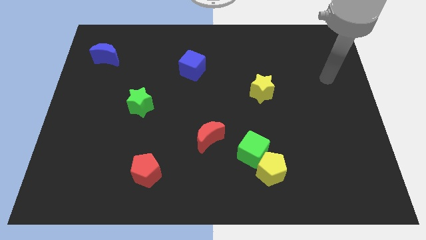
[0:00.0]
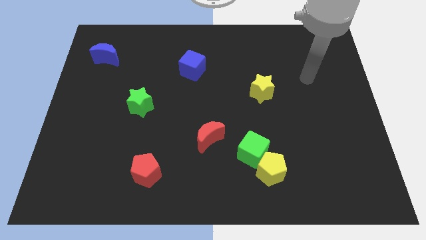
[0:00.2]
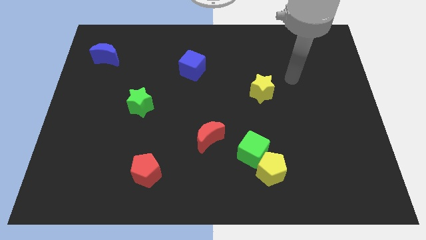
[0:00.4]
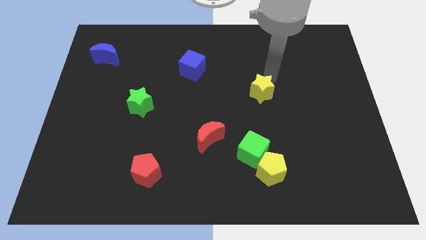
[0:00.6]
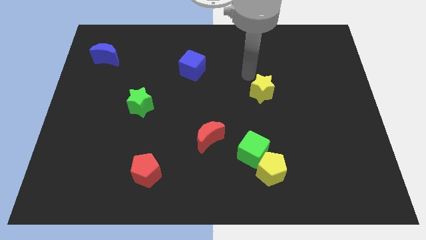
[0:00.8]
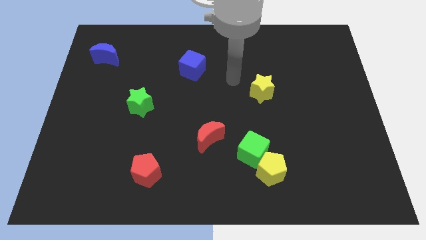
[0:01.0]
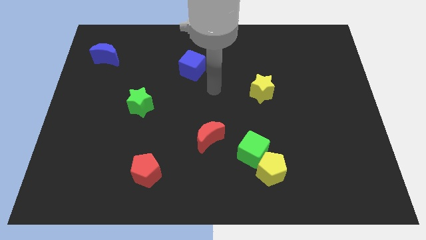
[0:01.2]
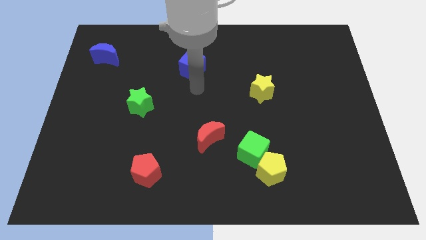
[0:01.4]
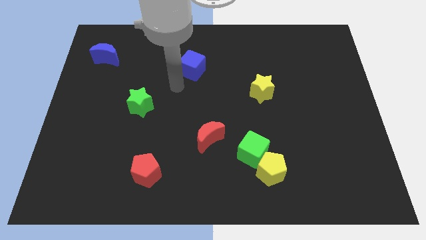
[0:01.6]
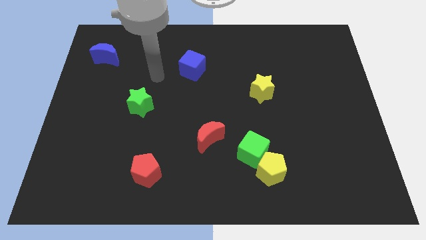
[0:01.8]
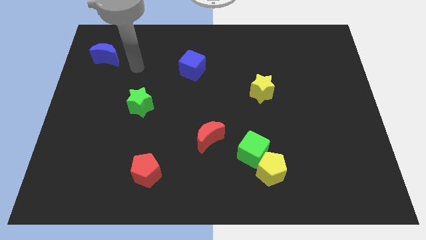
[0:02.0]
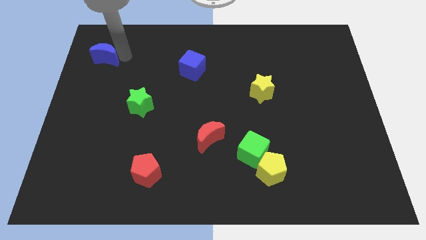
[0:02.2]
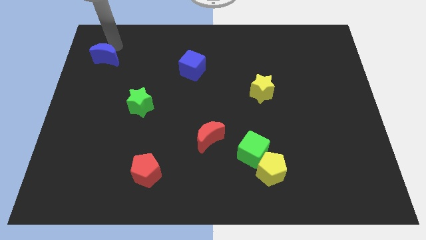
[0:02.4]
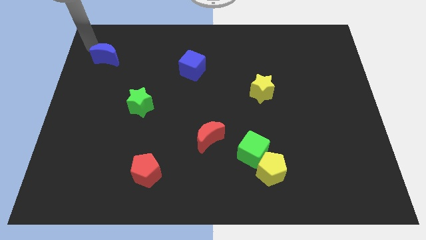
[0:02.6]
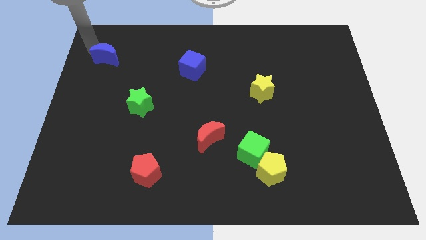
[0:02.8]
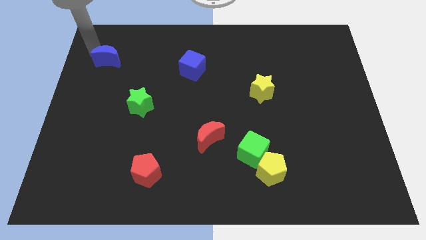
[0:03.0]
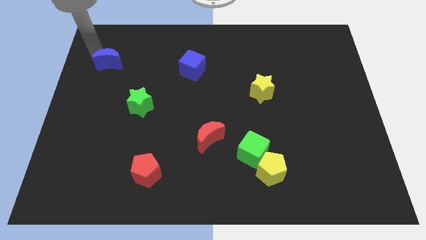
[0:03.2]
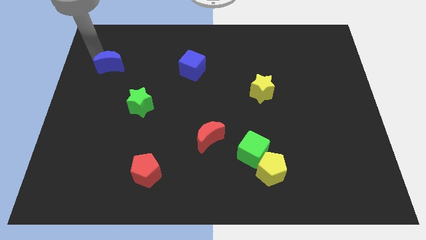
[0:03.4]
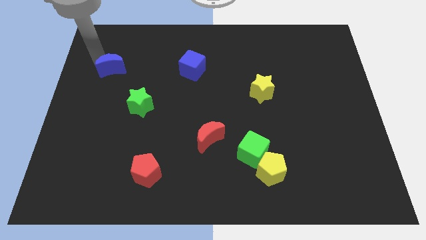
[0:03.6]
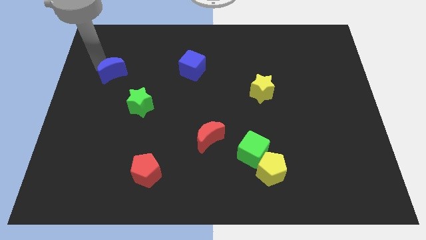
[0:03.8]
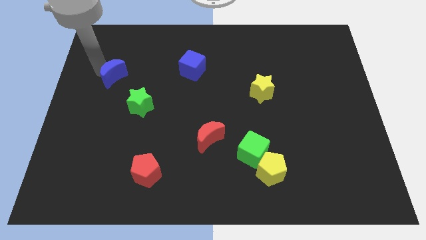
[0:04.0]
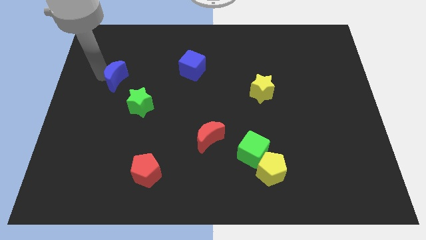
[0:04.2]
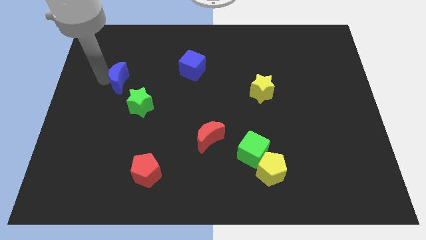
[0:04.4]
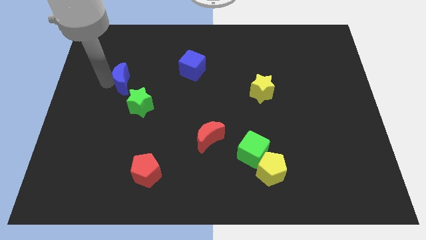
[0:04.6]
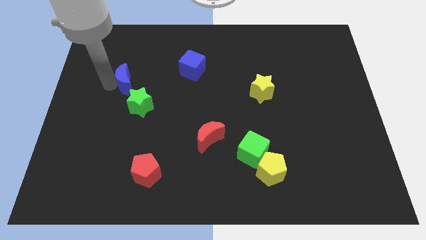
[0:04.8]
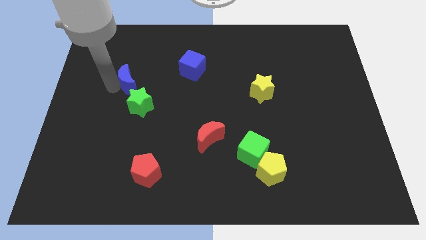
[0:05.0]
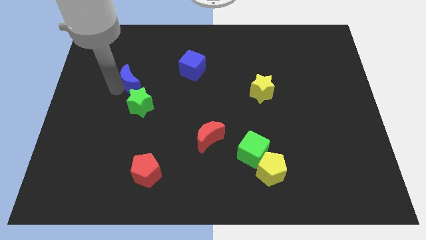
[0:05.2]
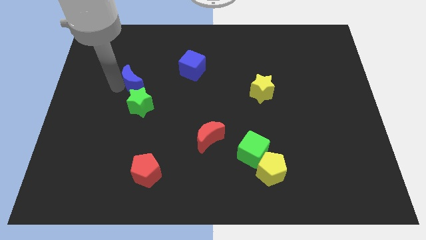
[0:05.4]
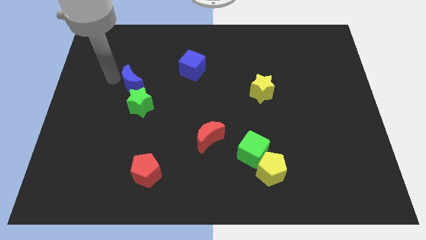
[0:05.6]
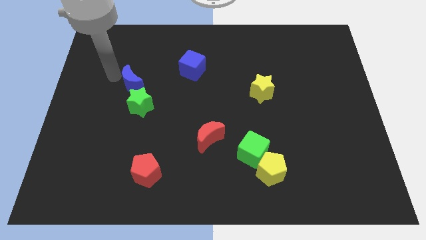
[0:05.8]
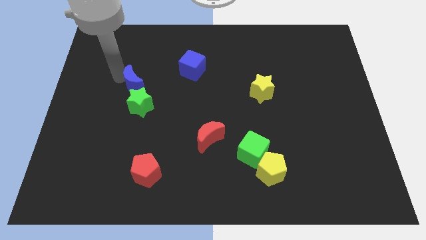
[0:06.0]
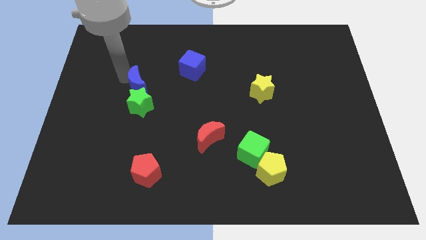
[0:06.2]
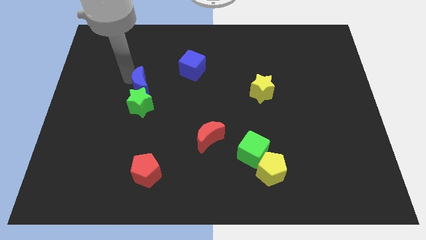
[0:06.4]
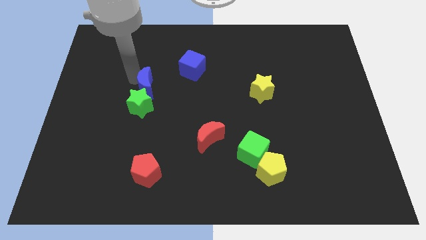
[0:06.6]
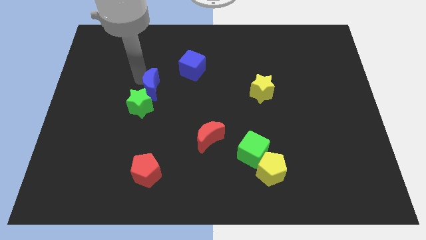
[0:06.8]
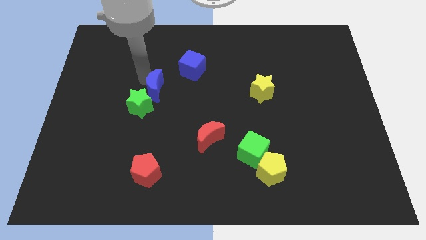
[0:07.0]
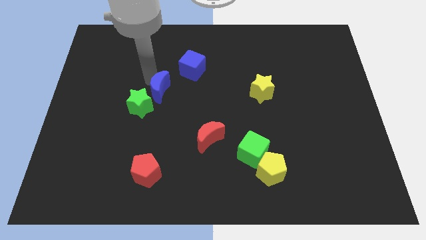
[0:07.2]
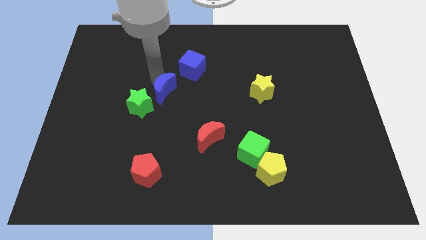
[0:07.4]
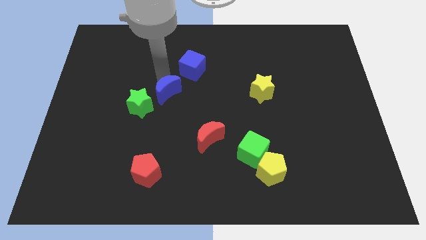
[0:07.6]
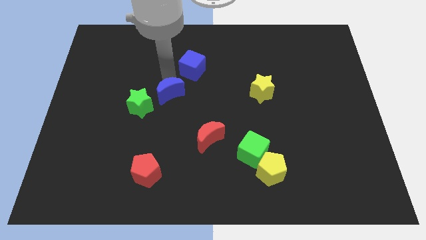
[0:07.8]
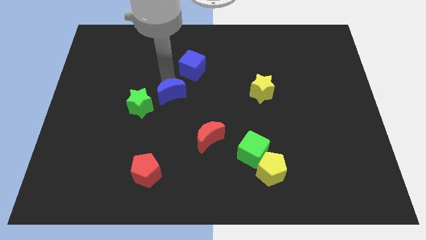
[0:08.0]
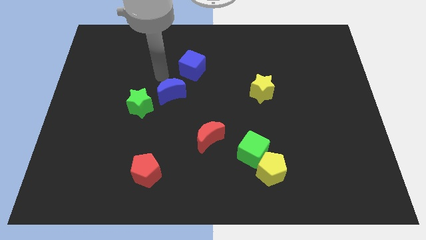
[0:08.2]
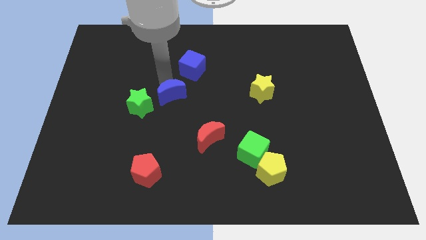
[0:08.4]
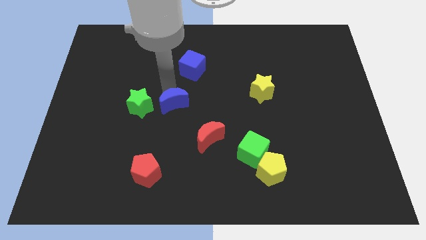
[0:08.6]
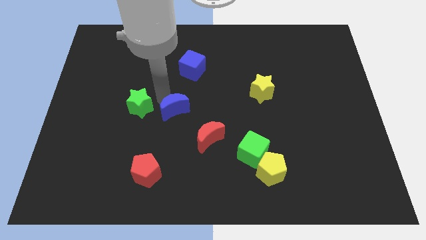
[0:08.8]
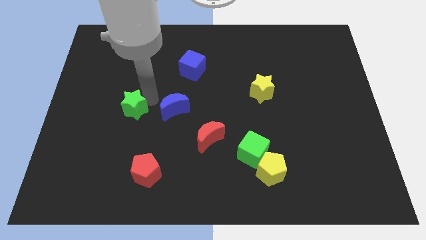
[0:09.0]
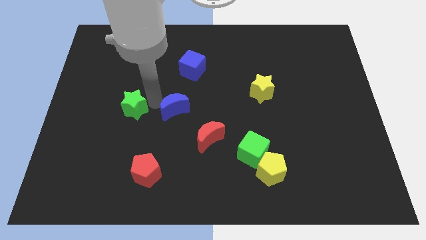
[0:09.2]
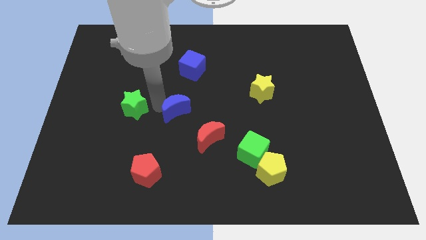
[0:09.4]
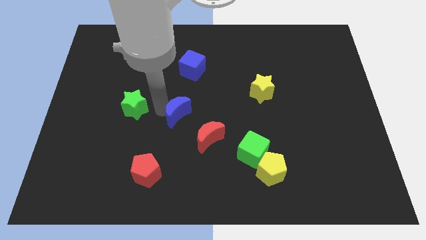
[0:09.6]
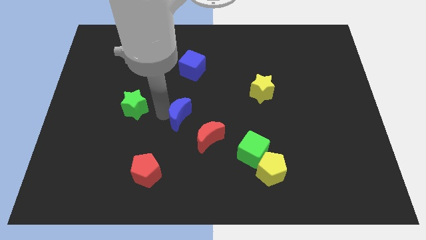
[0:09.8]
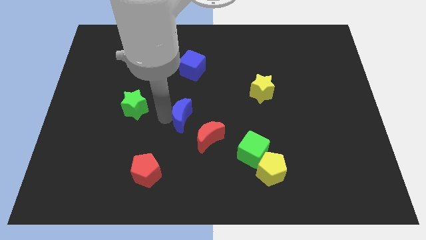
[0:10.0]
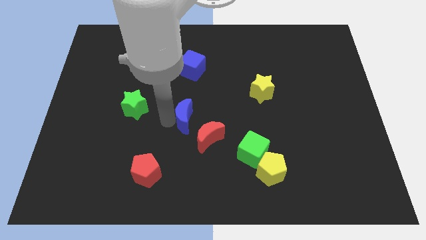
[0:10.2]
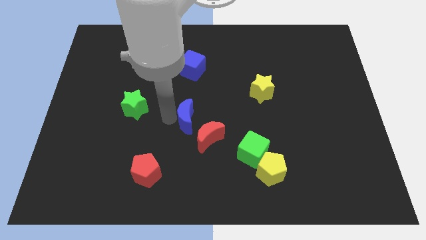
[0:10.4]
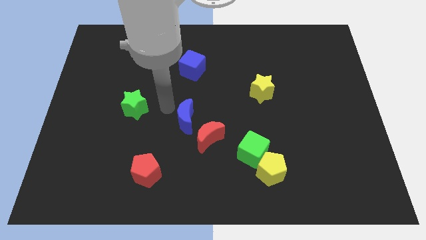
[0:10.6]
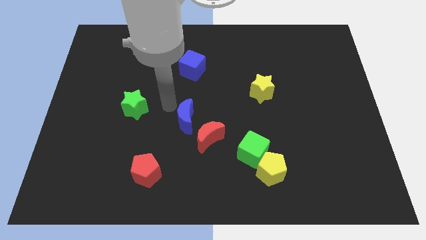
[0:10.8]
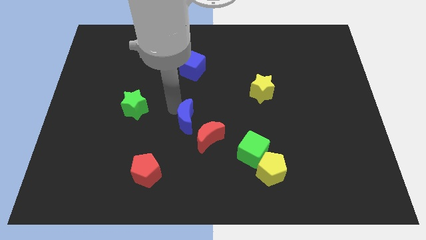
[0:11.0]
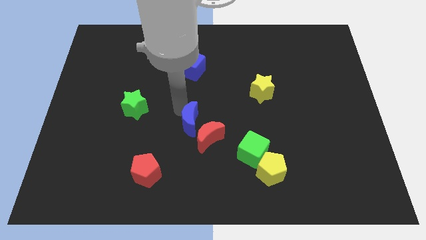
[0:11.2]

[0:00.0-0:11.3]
slide the blue moon close to the red moon
